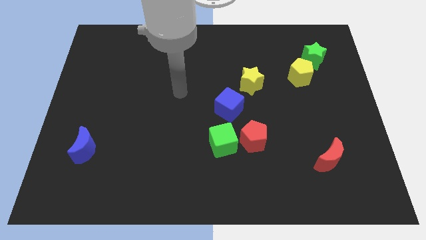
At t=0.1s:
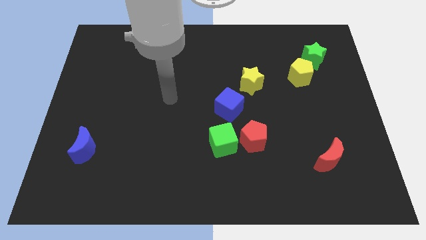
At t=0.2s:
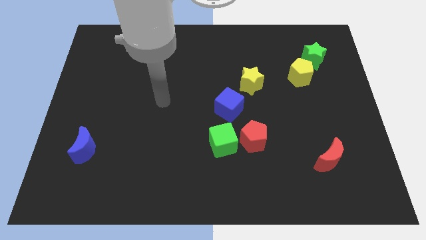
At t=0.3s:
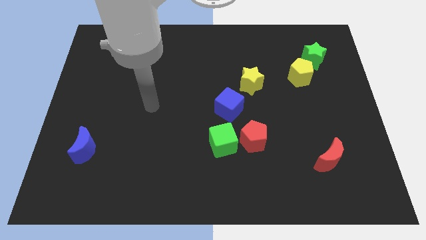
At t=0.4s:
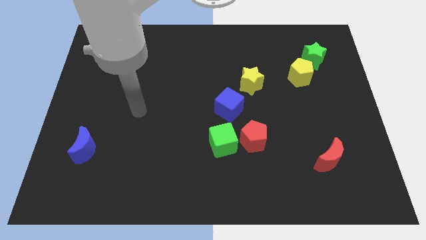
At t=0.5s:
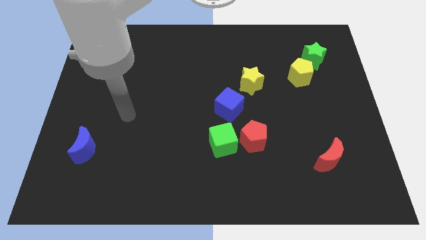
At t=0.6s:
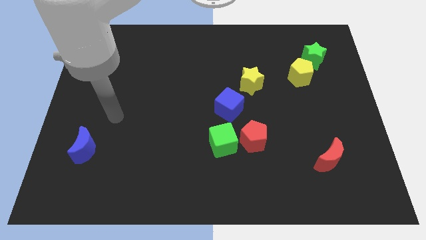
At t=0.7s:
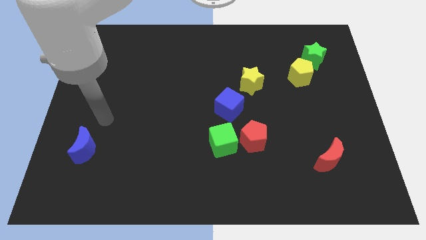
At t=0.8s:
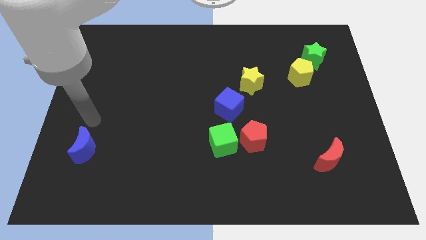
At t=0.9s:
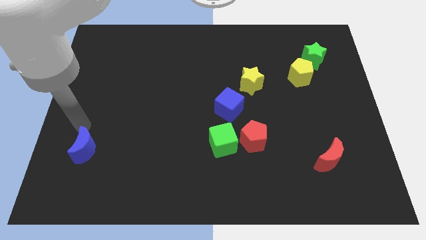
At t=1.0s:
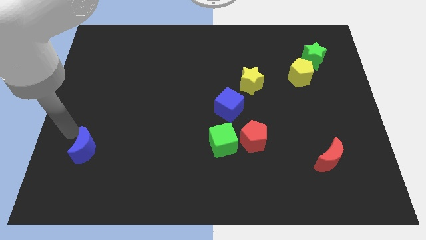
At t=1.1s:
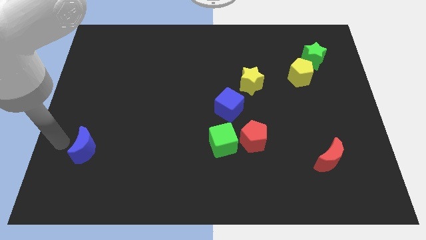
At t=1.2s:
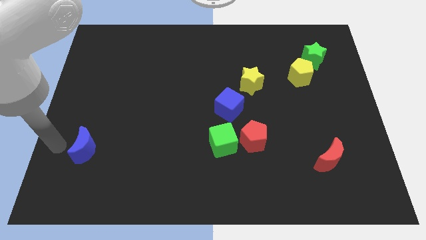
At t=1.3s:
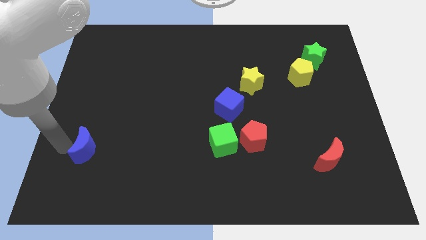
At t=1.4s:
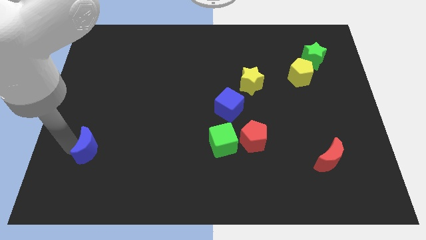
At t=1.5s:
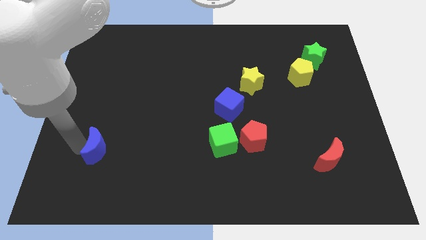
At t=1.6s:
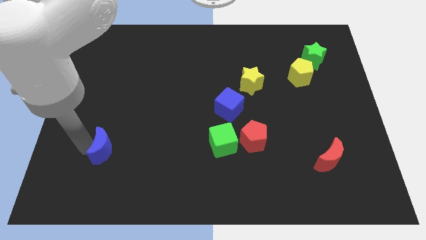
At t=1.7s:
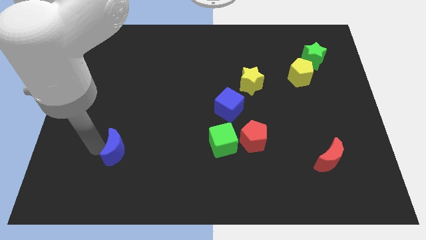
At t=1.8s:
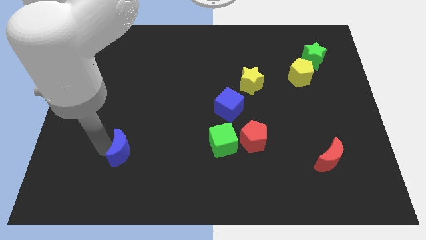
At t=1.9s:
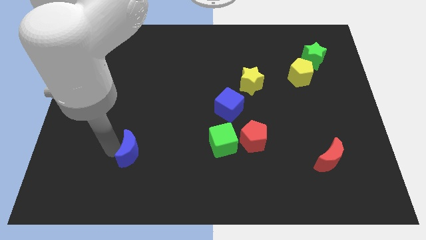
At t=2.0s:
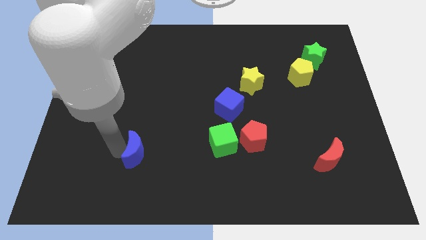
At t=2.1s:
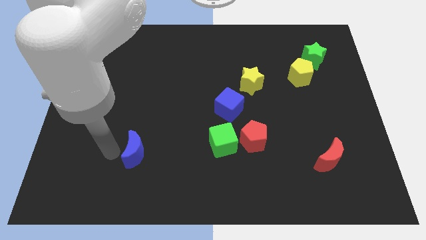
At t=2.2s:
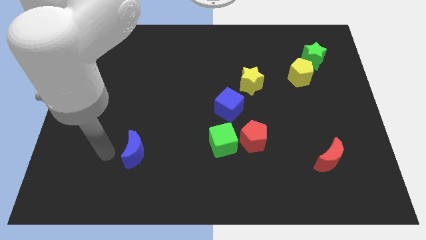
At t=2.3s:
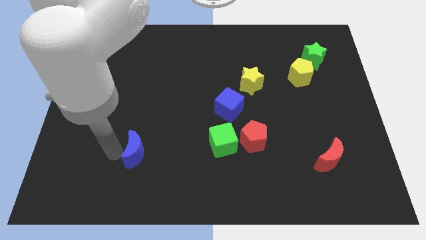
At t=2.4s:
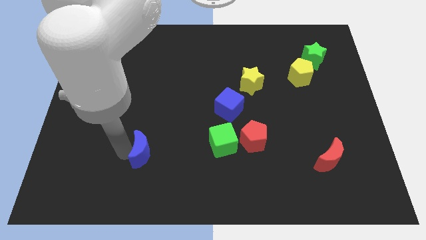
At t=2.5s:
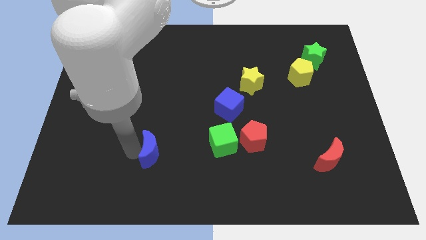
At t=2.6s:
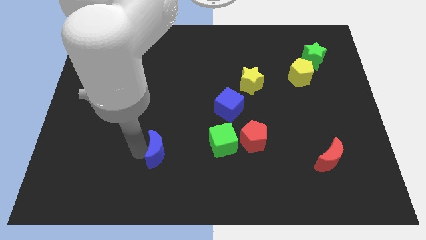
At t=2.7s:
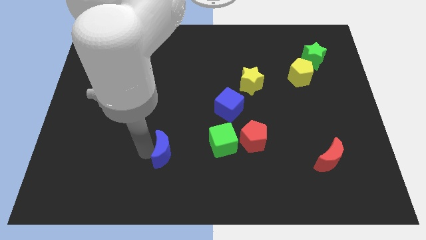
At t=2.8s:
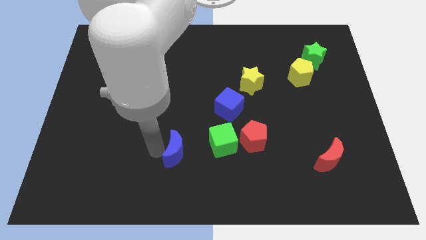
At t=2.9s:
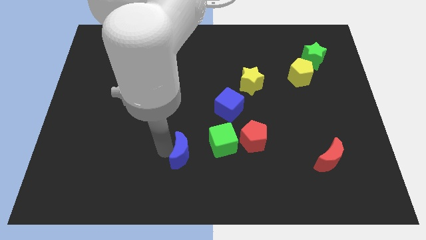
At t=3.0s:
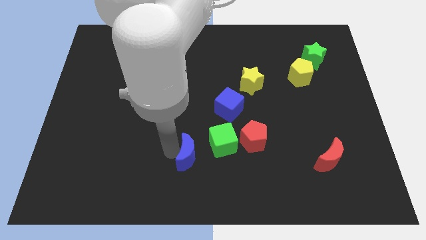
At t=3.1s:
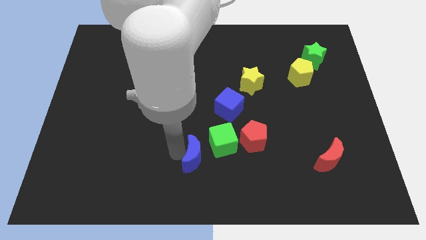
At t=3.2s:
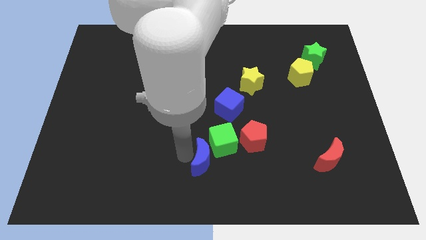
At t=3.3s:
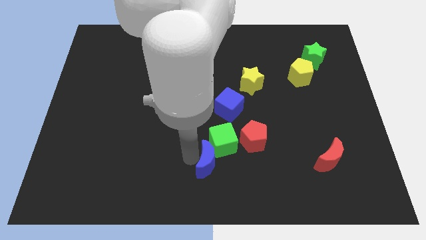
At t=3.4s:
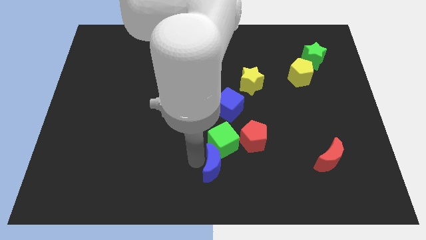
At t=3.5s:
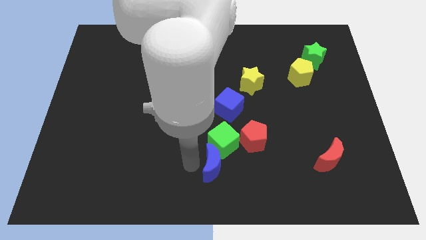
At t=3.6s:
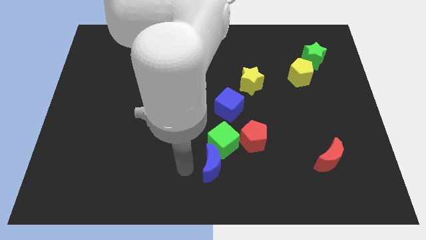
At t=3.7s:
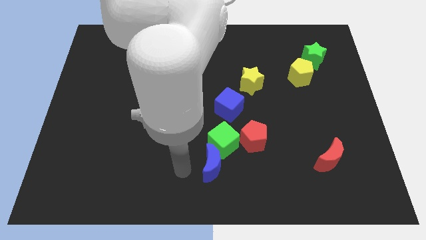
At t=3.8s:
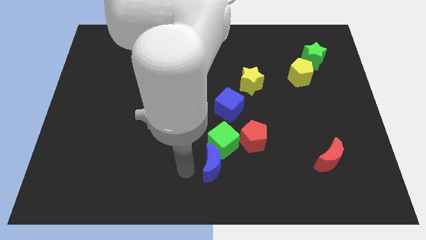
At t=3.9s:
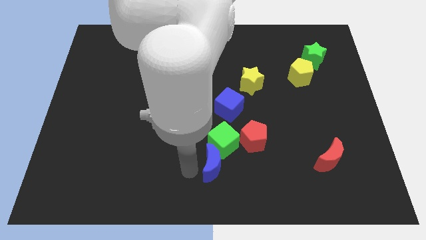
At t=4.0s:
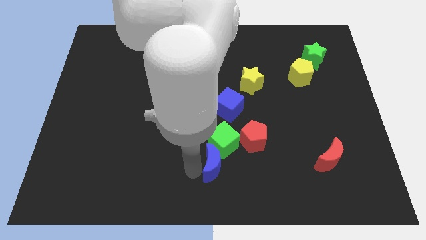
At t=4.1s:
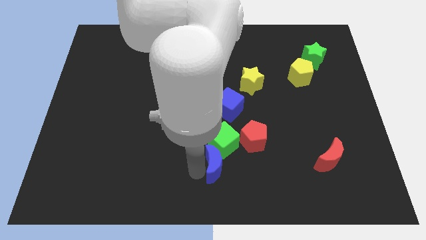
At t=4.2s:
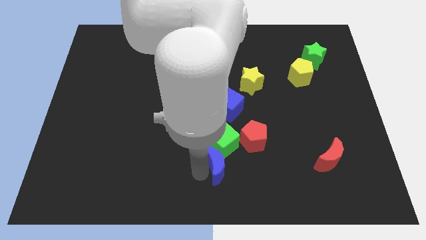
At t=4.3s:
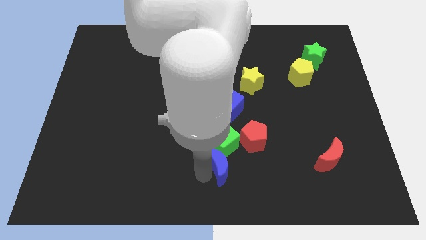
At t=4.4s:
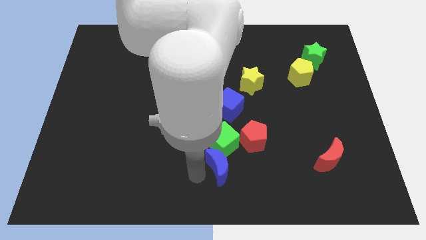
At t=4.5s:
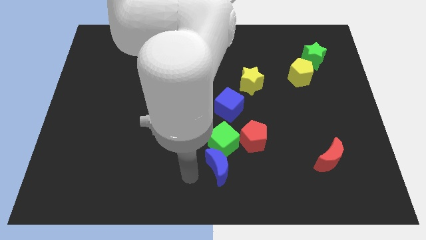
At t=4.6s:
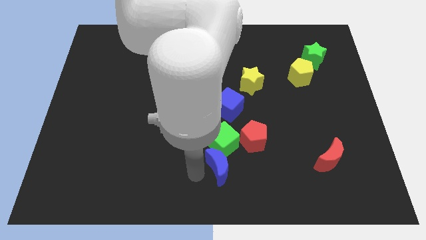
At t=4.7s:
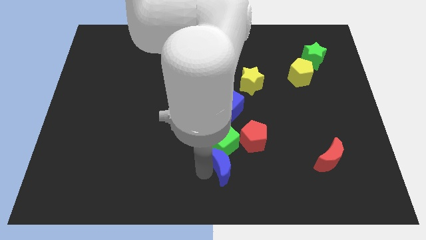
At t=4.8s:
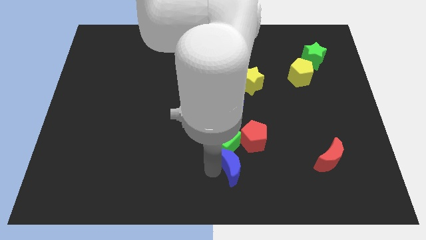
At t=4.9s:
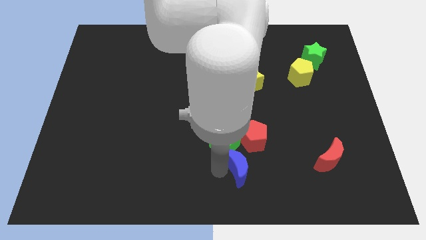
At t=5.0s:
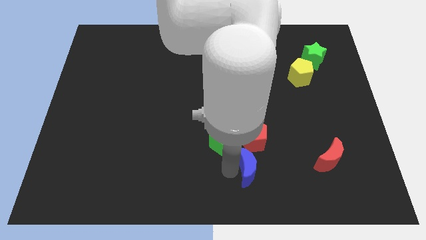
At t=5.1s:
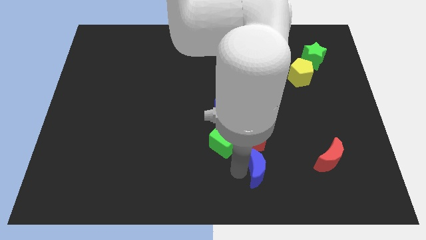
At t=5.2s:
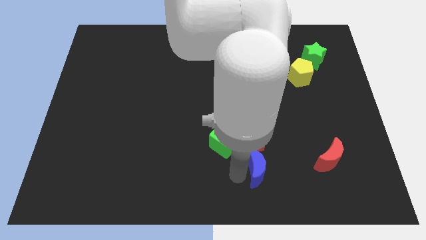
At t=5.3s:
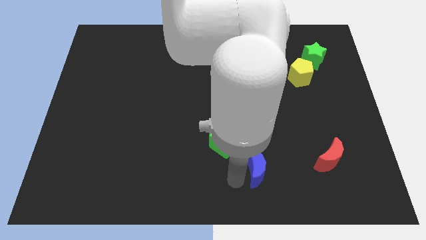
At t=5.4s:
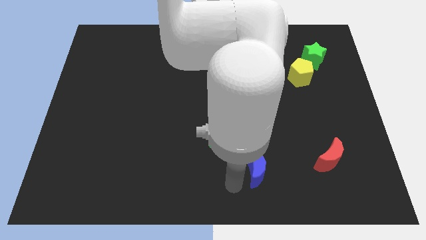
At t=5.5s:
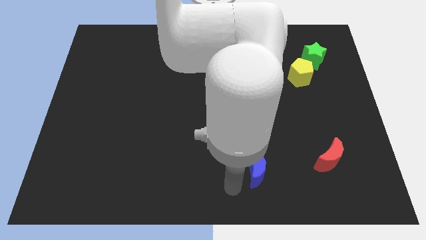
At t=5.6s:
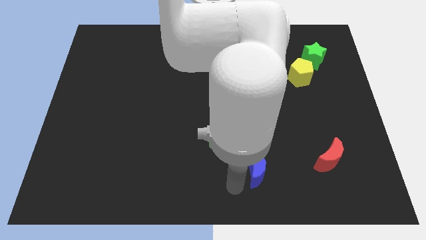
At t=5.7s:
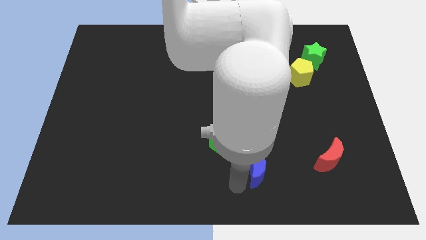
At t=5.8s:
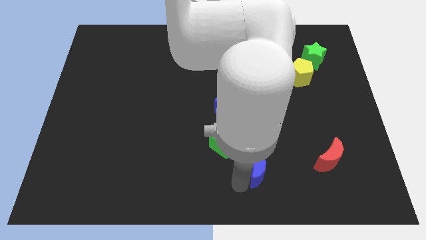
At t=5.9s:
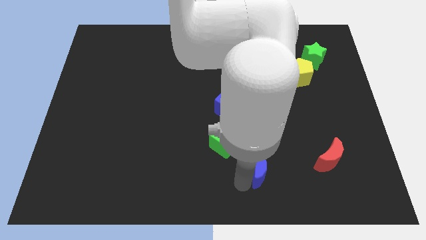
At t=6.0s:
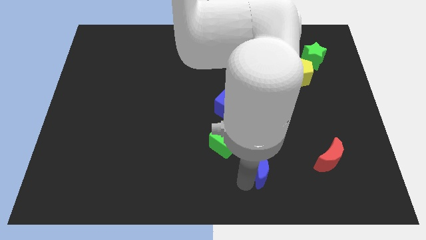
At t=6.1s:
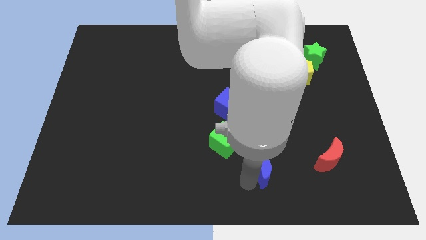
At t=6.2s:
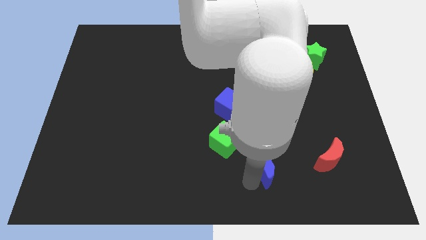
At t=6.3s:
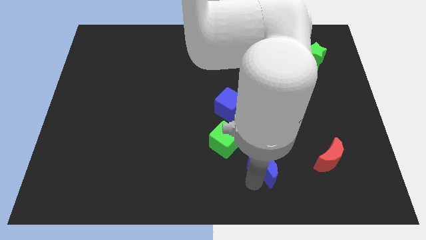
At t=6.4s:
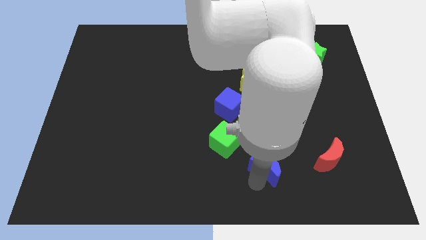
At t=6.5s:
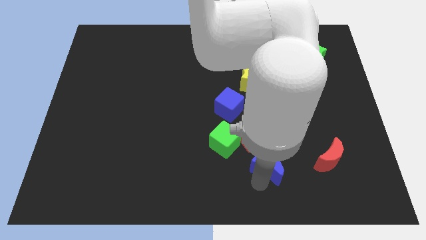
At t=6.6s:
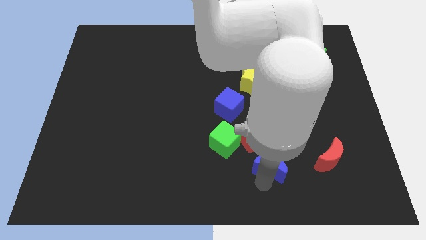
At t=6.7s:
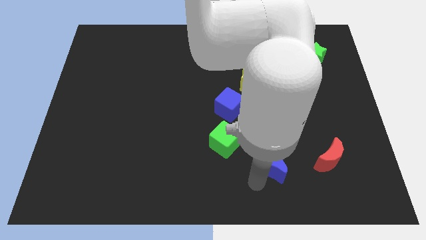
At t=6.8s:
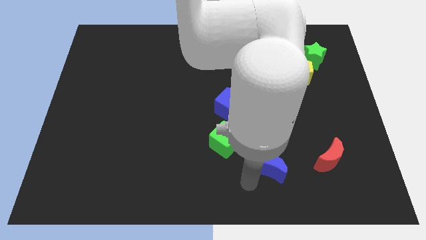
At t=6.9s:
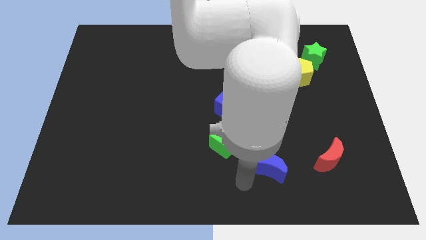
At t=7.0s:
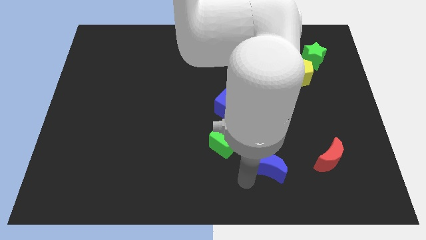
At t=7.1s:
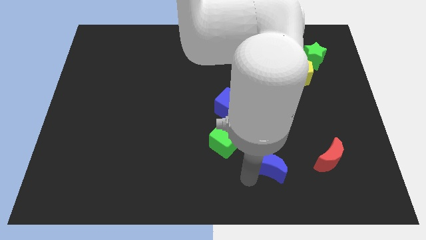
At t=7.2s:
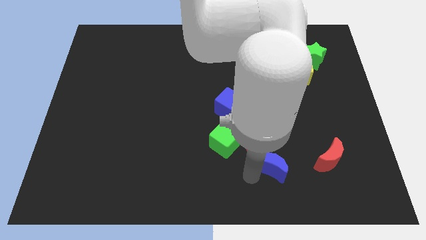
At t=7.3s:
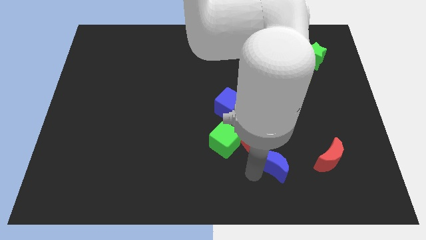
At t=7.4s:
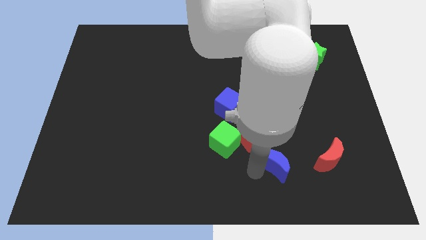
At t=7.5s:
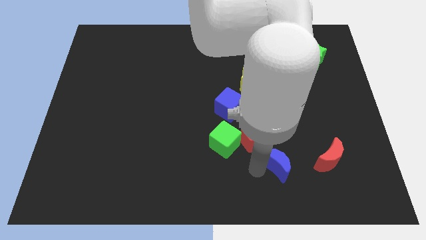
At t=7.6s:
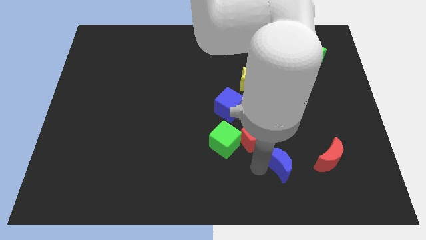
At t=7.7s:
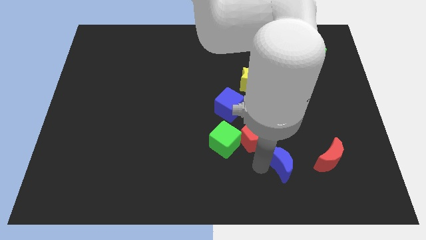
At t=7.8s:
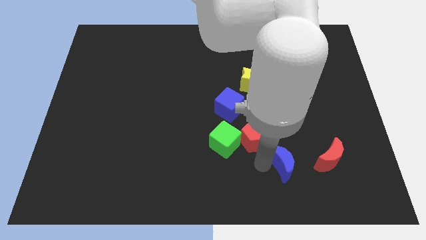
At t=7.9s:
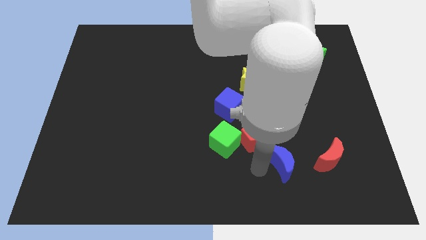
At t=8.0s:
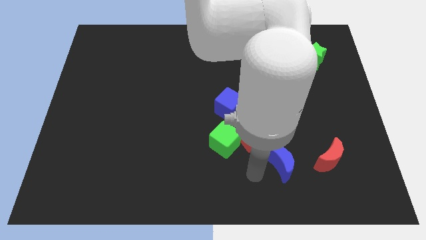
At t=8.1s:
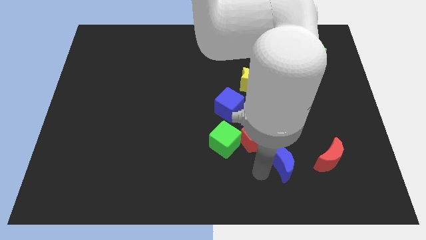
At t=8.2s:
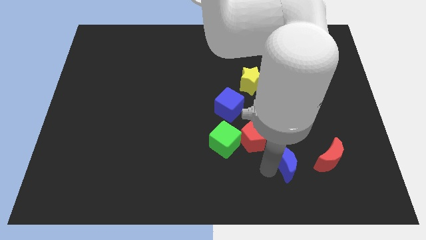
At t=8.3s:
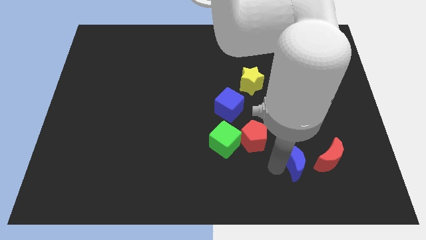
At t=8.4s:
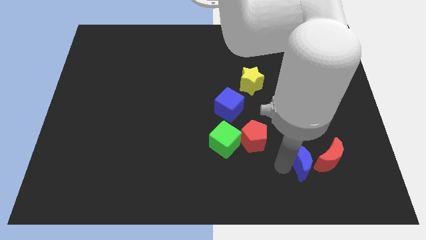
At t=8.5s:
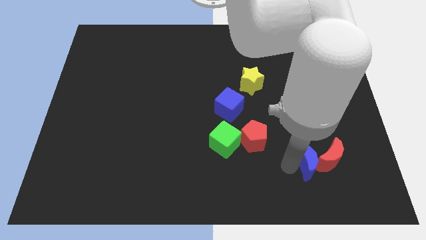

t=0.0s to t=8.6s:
move the blue moon to the red moon
